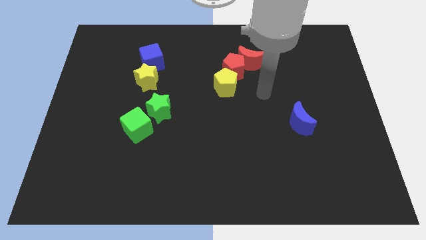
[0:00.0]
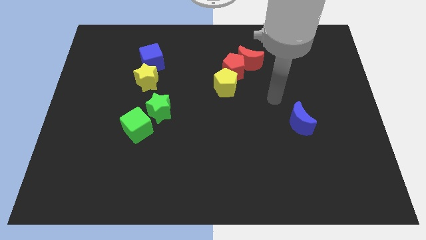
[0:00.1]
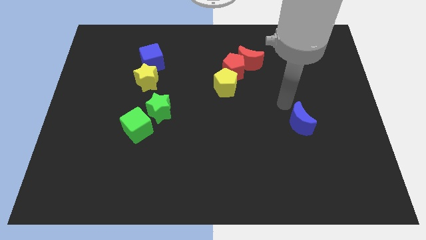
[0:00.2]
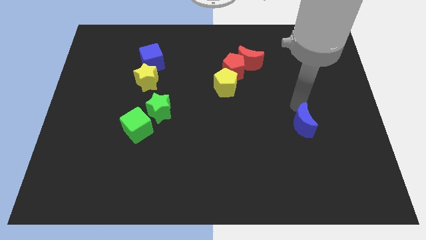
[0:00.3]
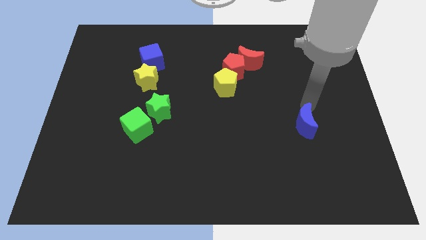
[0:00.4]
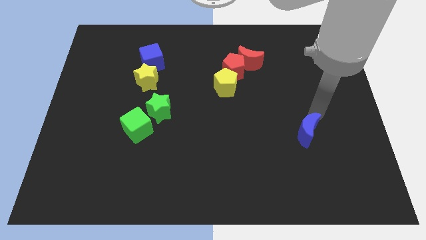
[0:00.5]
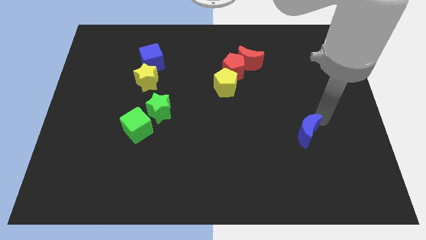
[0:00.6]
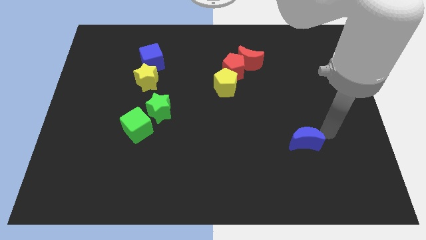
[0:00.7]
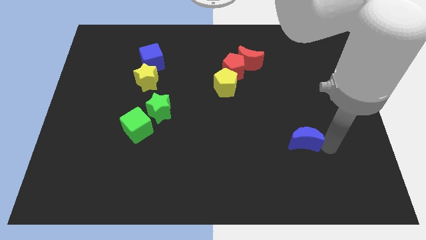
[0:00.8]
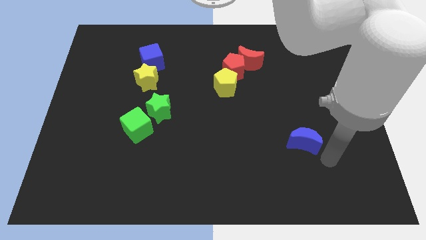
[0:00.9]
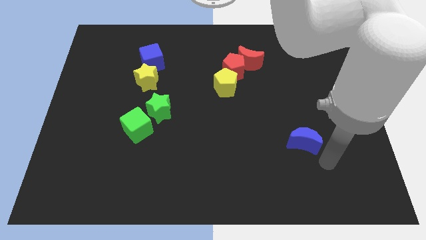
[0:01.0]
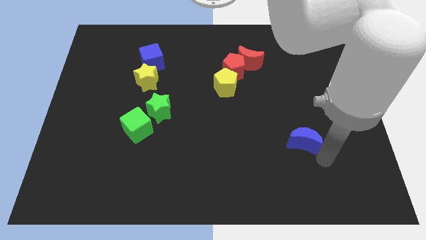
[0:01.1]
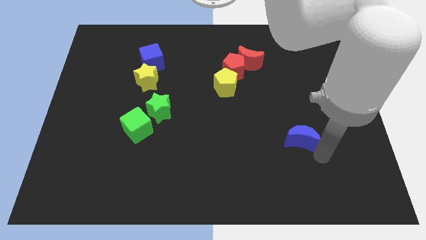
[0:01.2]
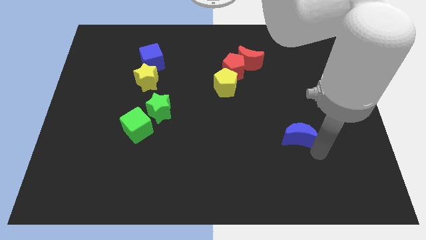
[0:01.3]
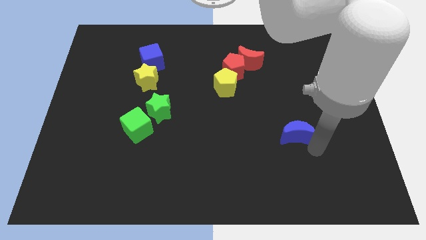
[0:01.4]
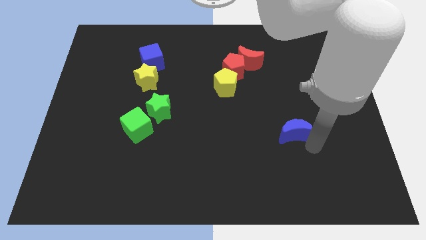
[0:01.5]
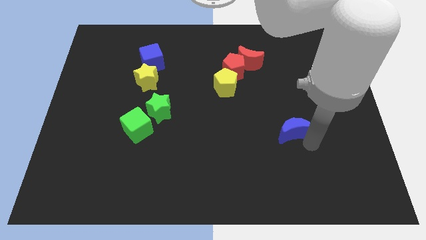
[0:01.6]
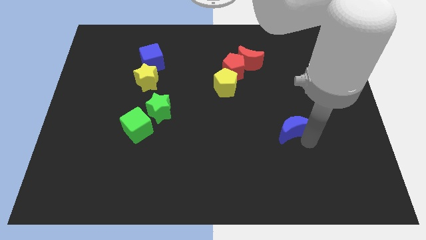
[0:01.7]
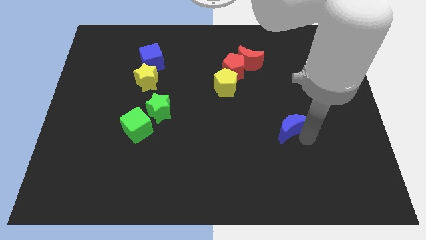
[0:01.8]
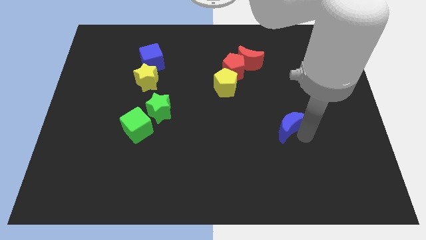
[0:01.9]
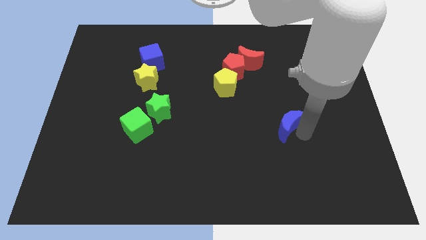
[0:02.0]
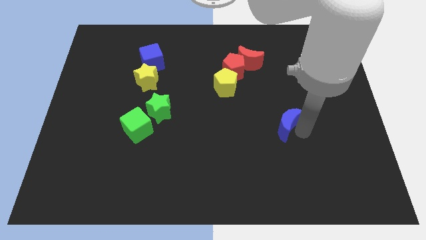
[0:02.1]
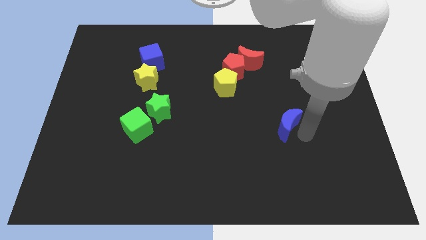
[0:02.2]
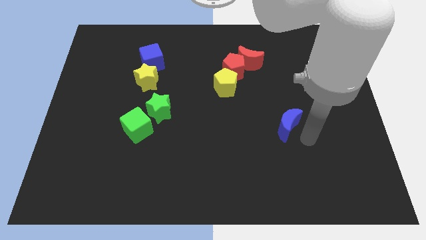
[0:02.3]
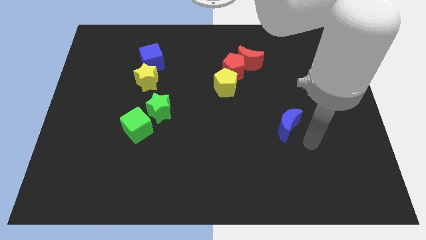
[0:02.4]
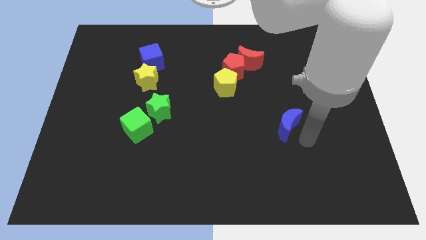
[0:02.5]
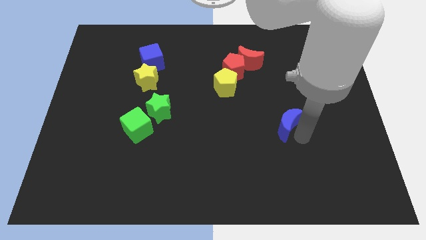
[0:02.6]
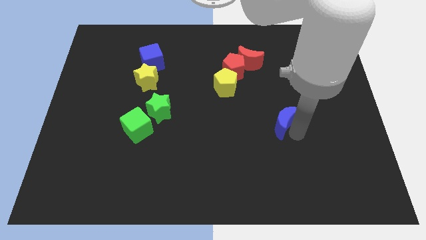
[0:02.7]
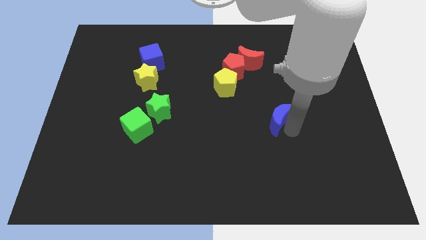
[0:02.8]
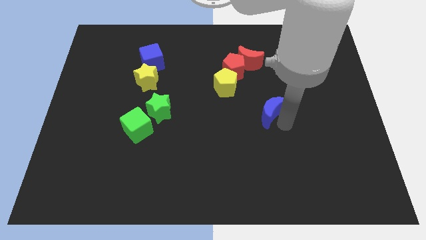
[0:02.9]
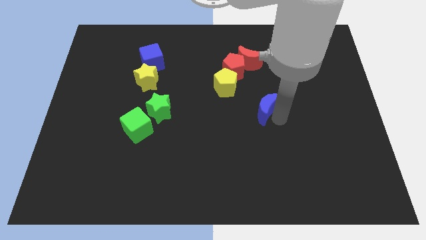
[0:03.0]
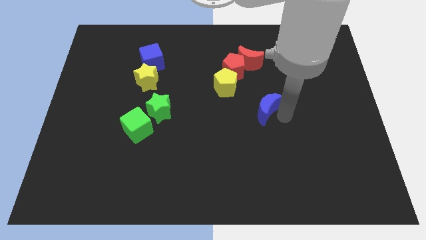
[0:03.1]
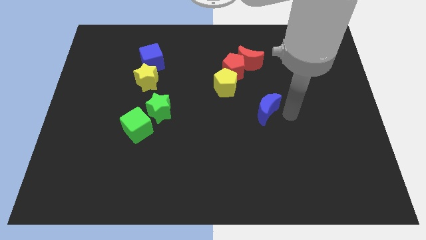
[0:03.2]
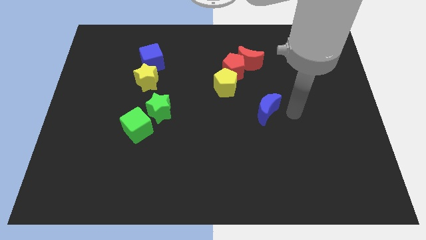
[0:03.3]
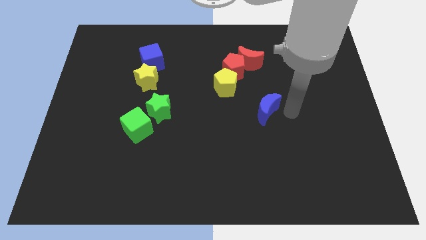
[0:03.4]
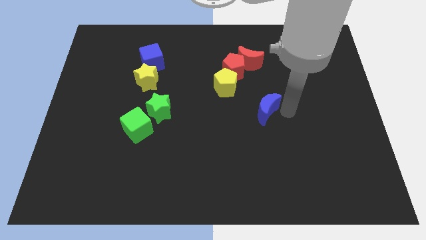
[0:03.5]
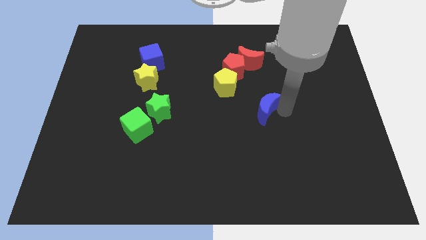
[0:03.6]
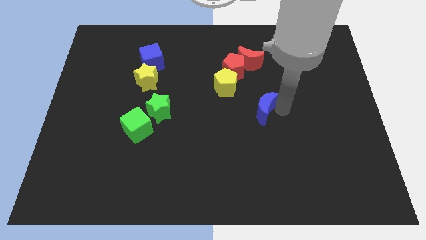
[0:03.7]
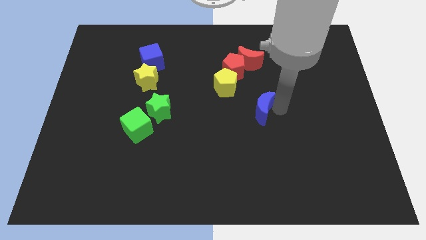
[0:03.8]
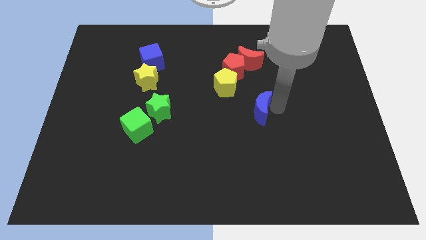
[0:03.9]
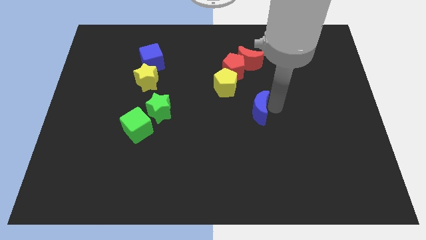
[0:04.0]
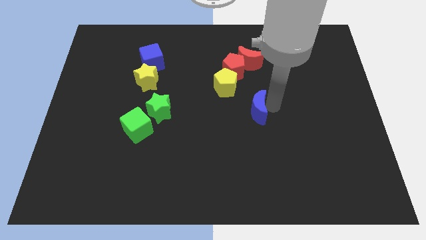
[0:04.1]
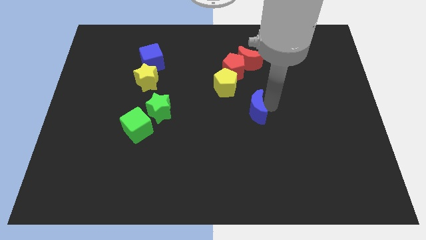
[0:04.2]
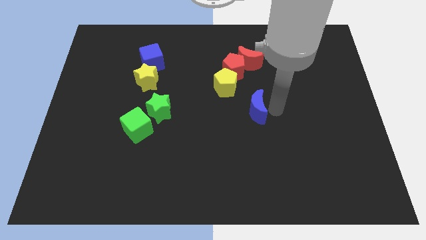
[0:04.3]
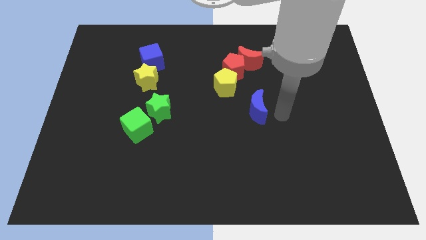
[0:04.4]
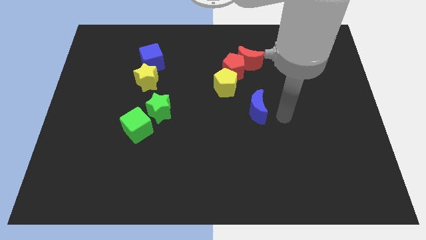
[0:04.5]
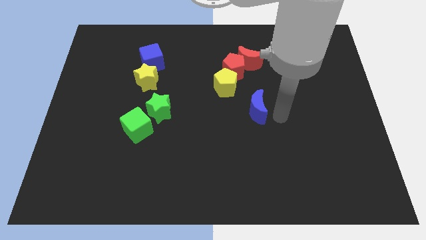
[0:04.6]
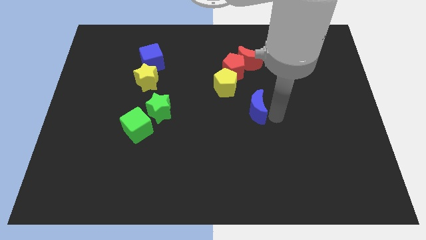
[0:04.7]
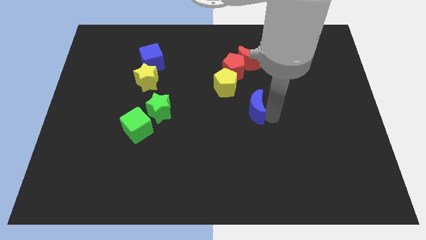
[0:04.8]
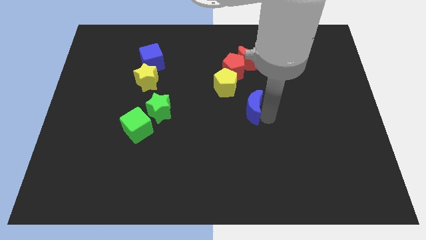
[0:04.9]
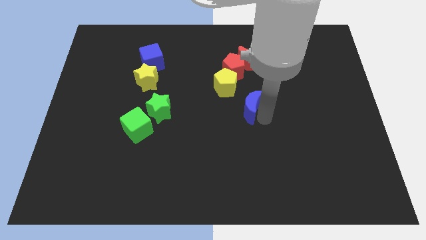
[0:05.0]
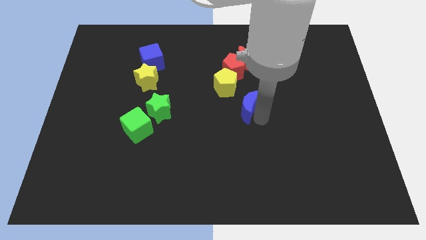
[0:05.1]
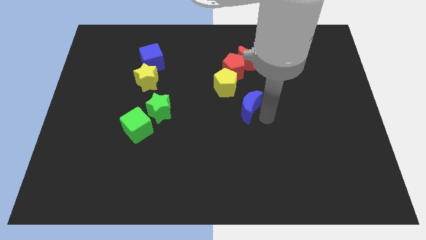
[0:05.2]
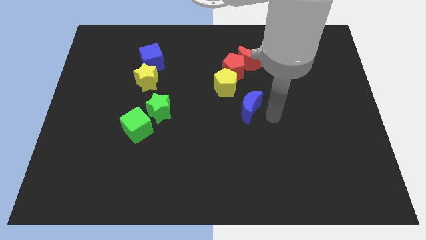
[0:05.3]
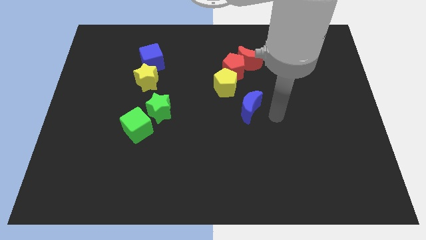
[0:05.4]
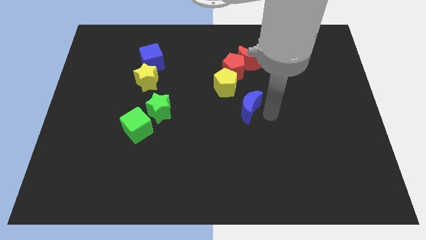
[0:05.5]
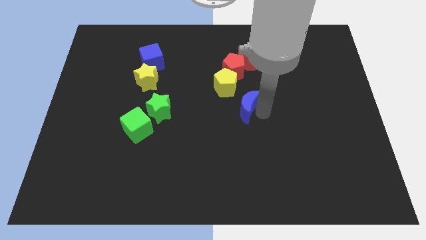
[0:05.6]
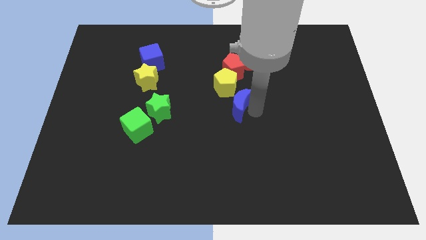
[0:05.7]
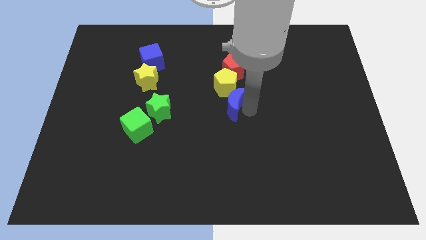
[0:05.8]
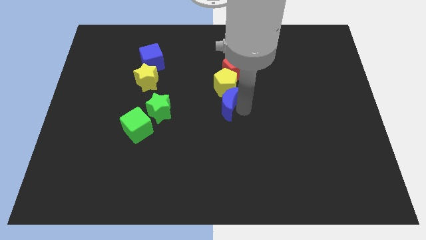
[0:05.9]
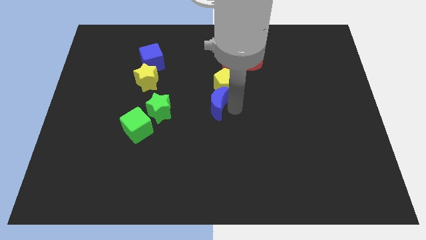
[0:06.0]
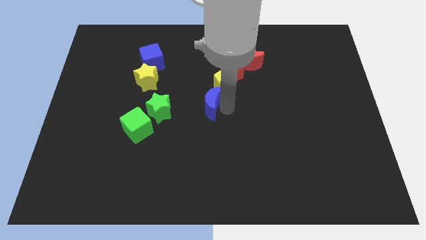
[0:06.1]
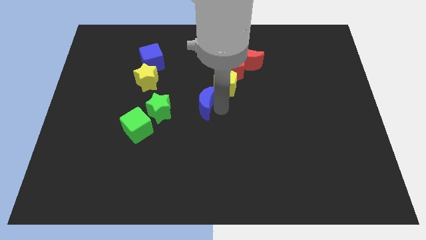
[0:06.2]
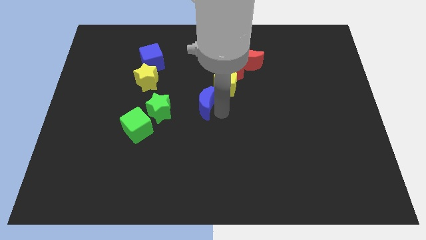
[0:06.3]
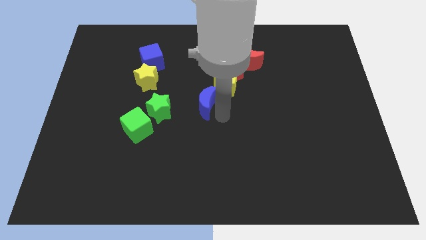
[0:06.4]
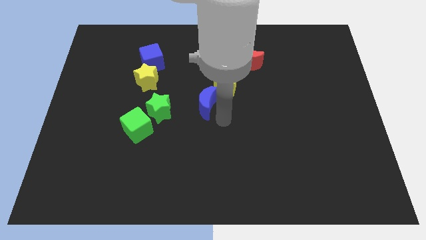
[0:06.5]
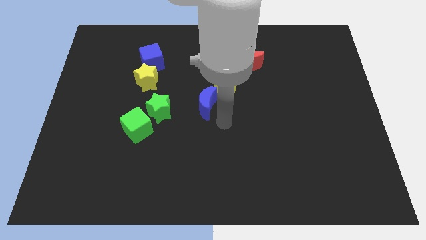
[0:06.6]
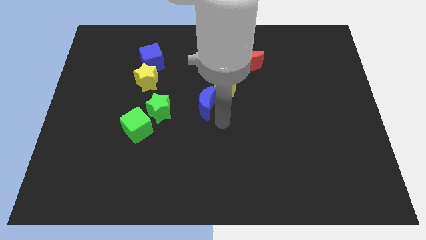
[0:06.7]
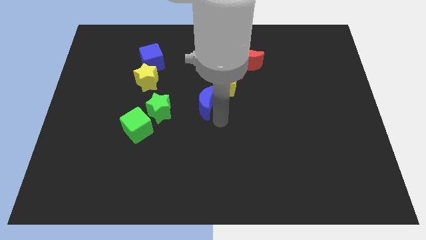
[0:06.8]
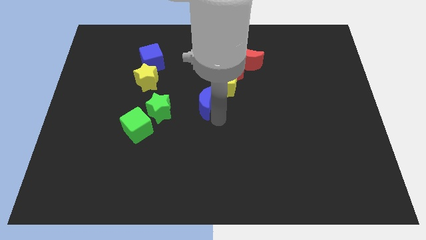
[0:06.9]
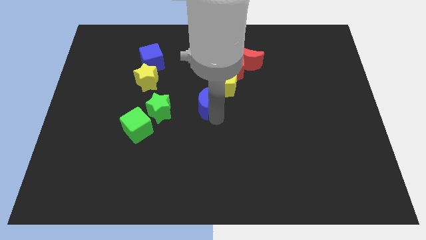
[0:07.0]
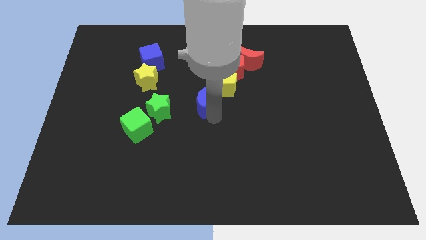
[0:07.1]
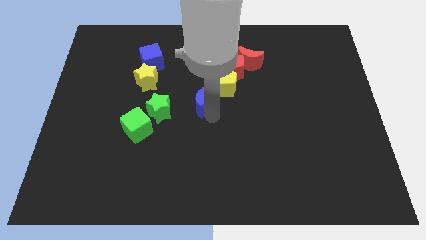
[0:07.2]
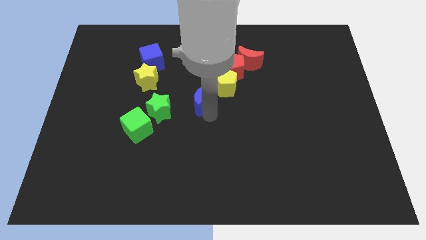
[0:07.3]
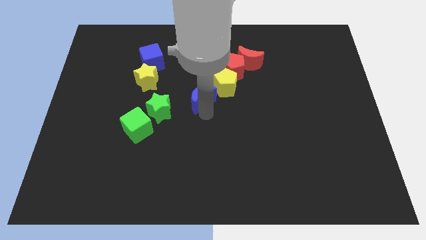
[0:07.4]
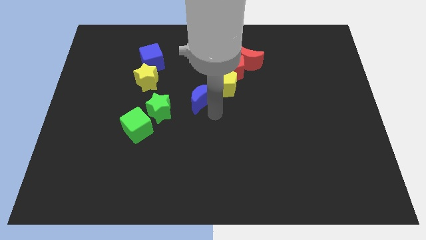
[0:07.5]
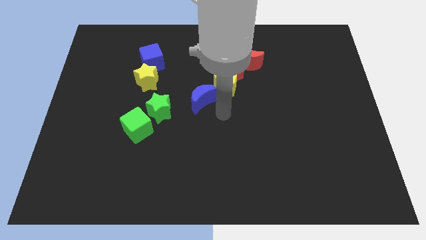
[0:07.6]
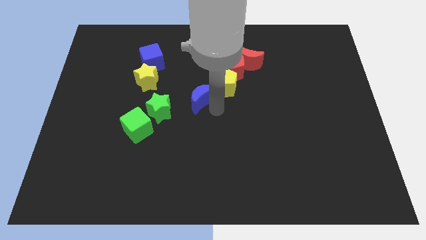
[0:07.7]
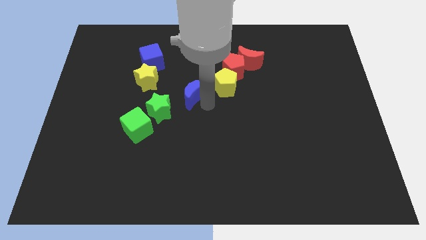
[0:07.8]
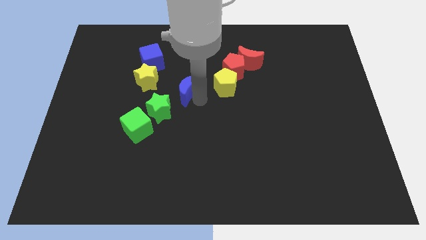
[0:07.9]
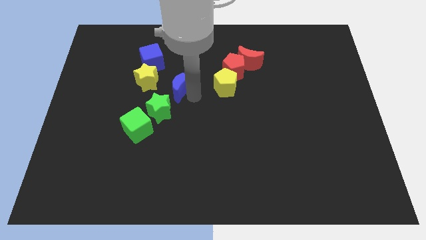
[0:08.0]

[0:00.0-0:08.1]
put the blue moon above the green star
